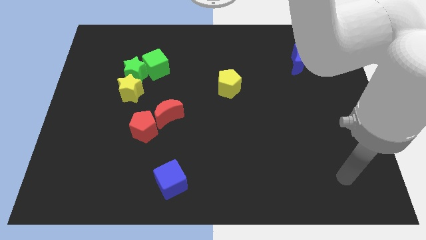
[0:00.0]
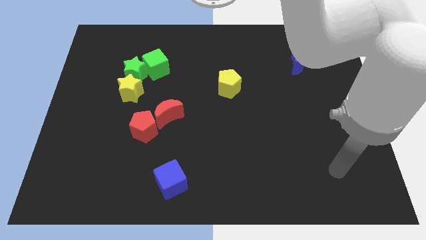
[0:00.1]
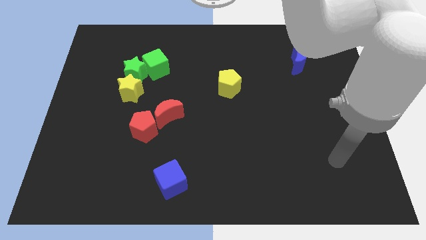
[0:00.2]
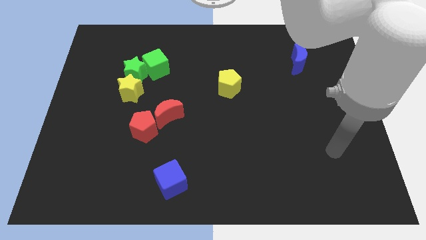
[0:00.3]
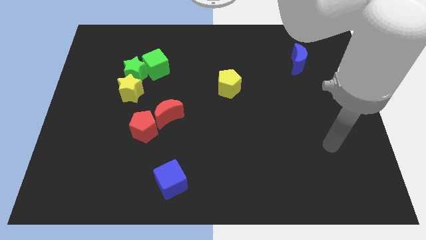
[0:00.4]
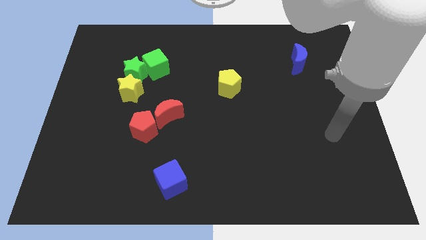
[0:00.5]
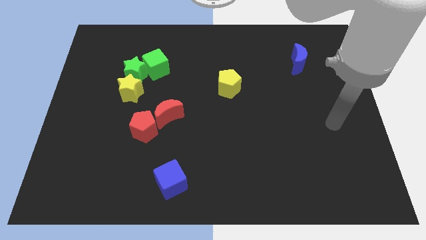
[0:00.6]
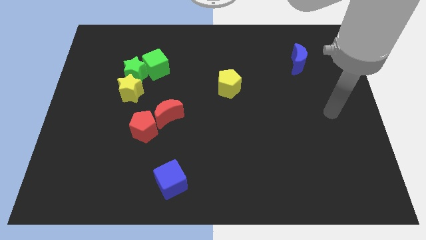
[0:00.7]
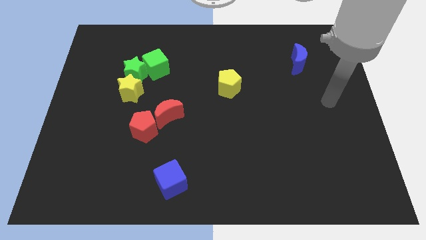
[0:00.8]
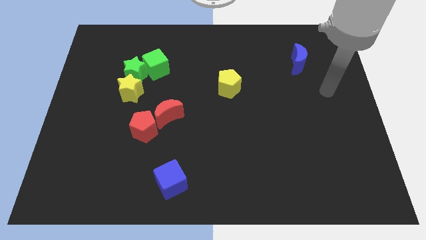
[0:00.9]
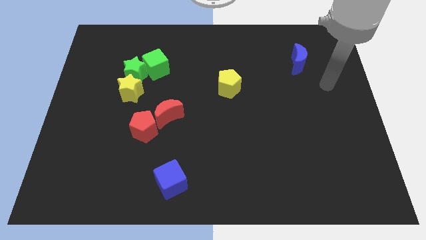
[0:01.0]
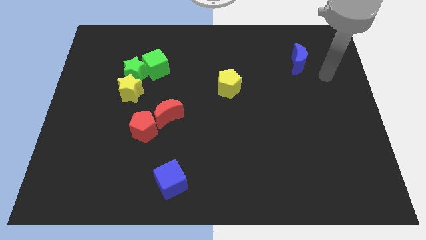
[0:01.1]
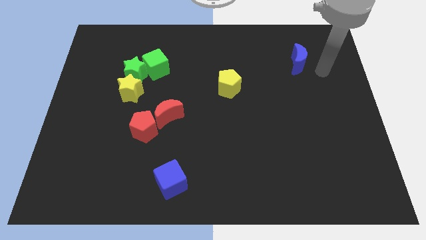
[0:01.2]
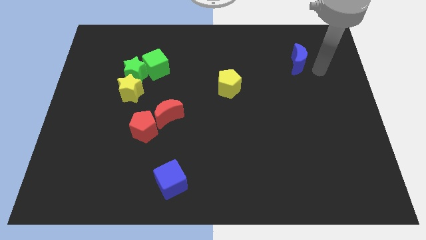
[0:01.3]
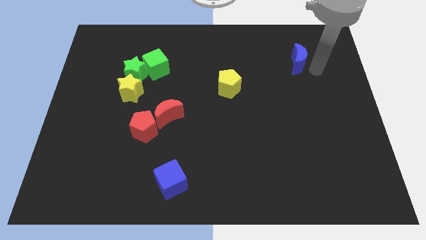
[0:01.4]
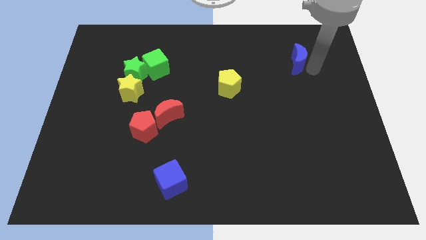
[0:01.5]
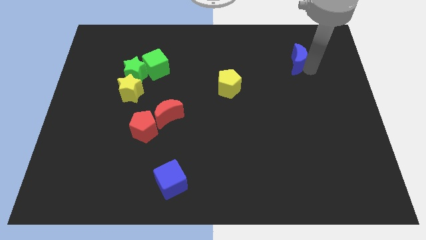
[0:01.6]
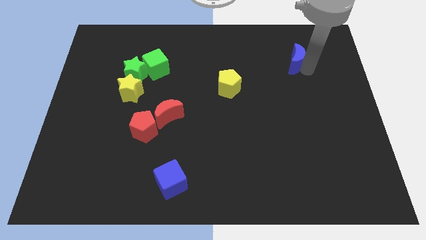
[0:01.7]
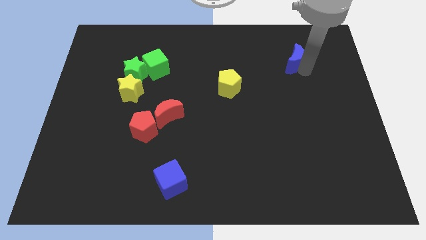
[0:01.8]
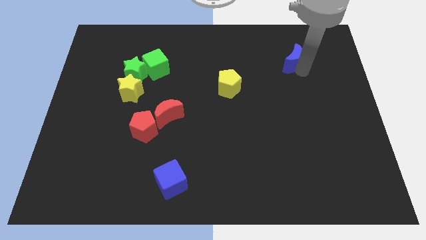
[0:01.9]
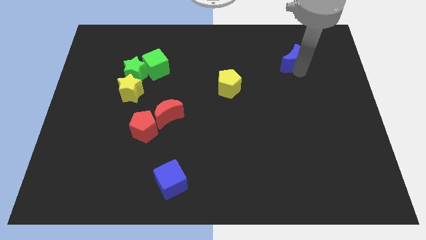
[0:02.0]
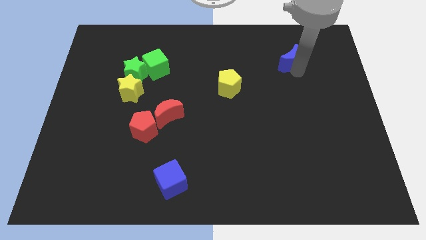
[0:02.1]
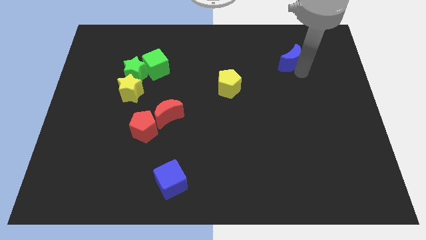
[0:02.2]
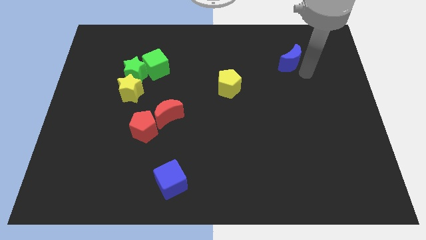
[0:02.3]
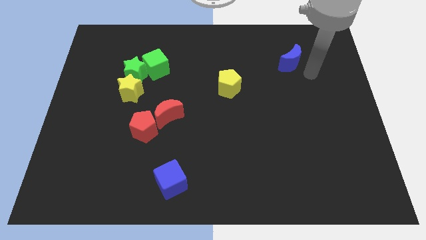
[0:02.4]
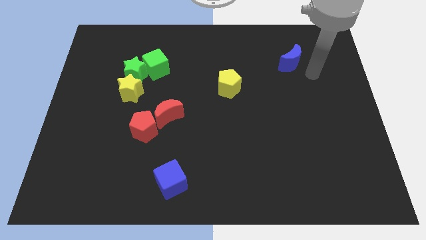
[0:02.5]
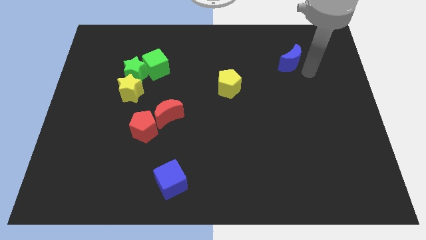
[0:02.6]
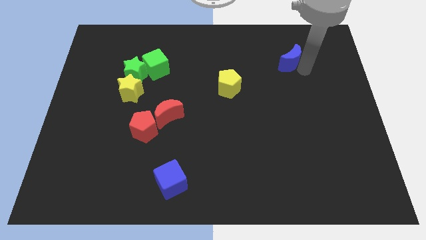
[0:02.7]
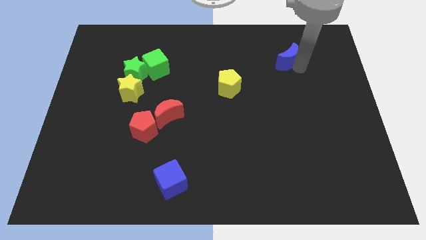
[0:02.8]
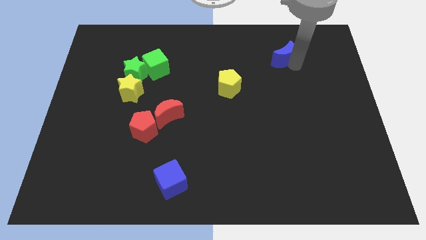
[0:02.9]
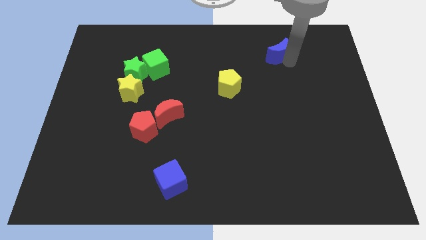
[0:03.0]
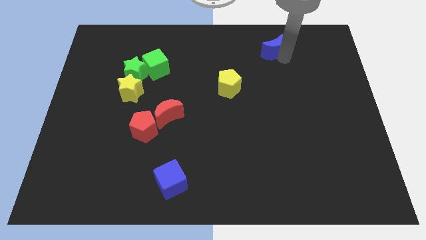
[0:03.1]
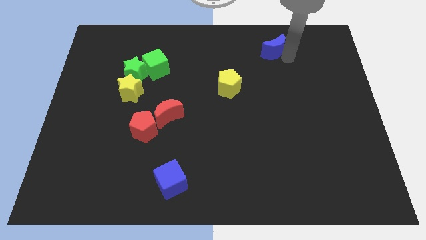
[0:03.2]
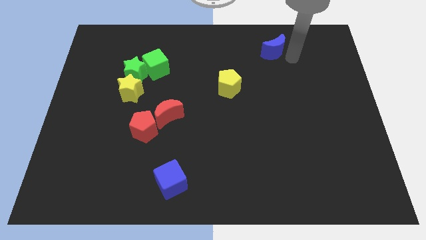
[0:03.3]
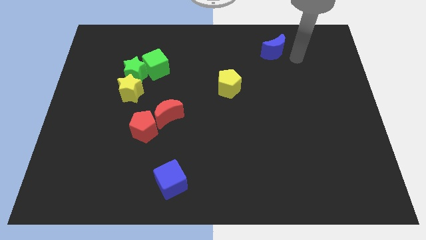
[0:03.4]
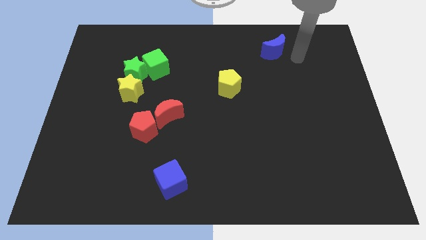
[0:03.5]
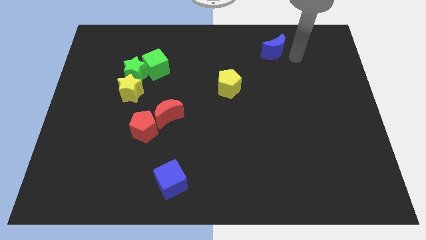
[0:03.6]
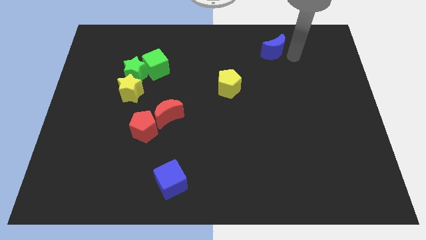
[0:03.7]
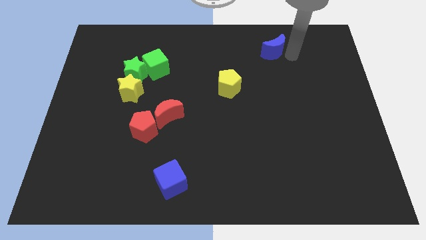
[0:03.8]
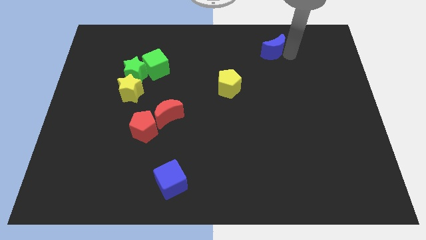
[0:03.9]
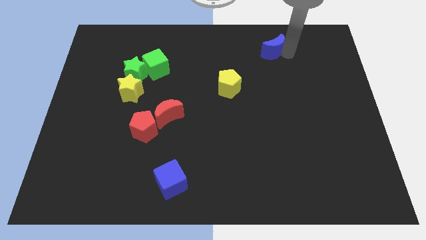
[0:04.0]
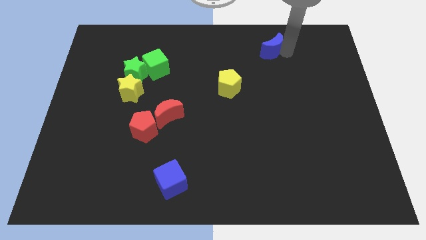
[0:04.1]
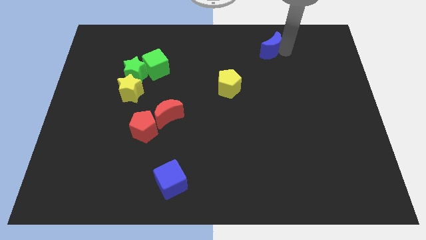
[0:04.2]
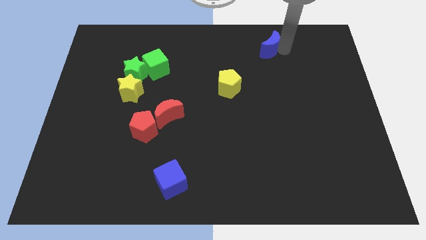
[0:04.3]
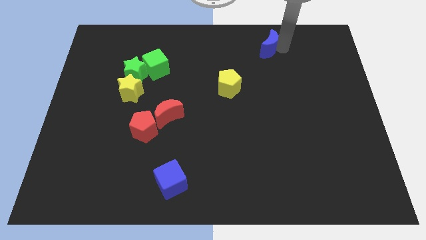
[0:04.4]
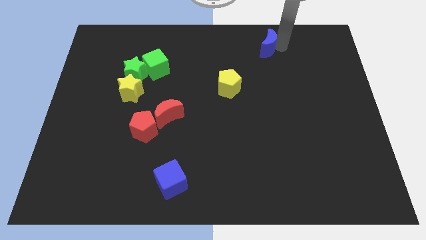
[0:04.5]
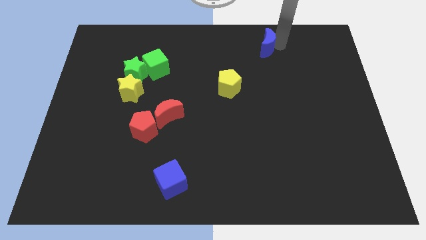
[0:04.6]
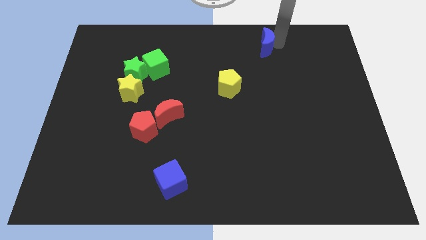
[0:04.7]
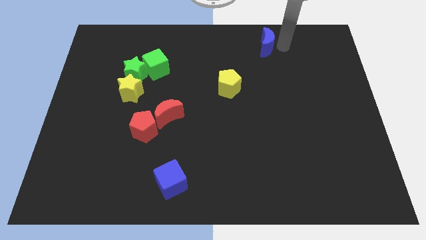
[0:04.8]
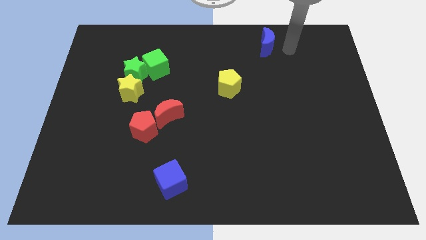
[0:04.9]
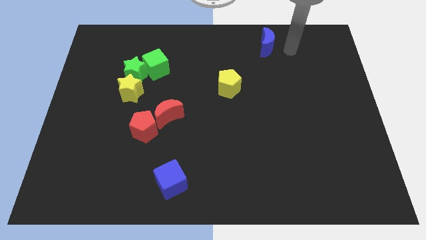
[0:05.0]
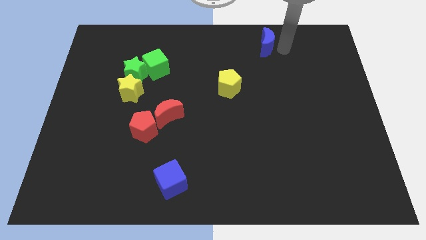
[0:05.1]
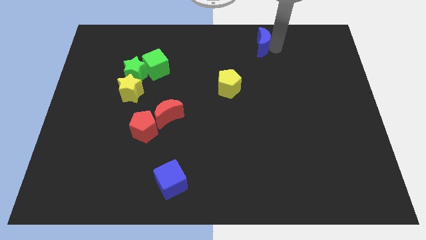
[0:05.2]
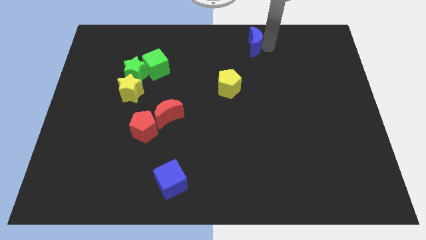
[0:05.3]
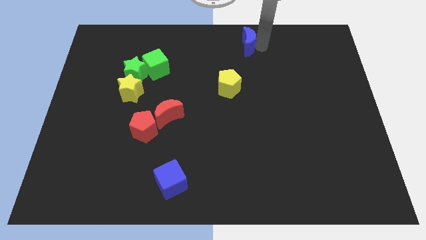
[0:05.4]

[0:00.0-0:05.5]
move the blue moon to the top side
